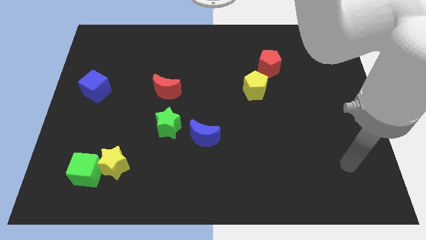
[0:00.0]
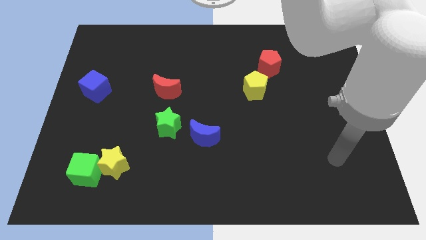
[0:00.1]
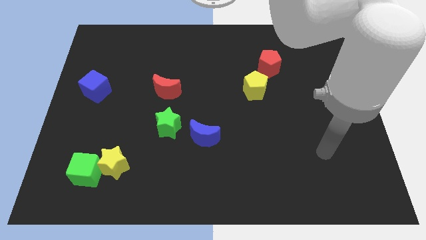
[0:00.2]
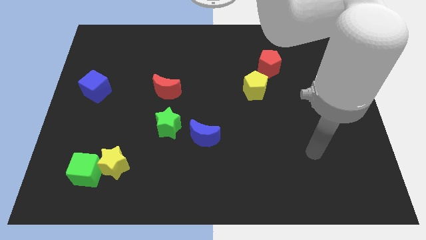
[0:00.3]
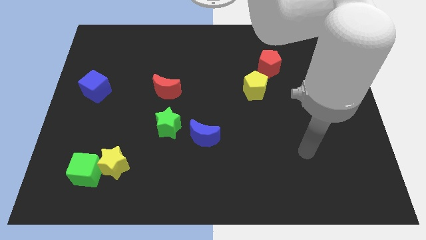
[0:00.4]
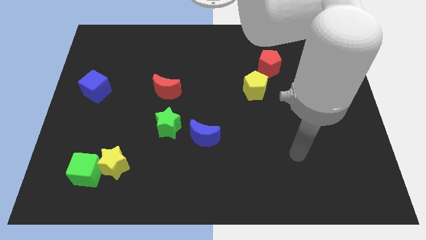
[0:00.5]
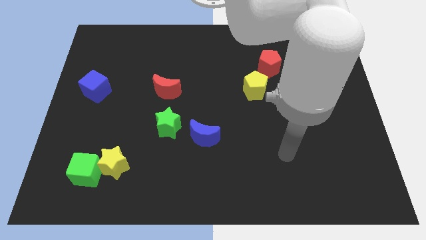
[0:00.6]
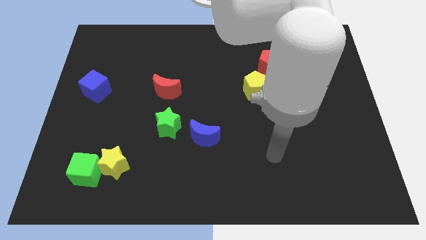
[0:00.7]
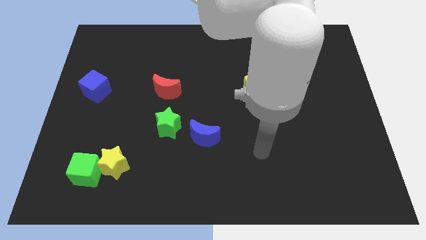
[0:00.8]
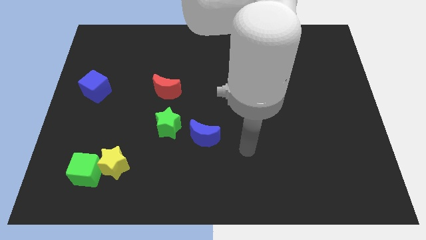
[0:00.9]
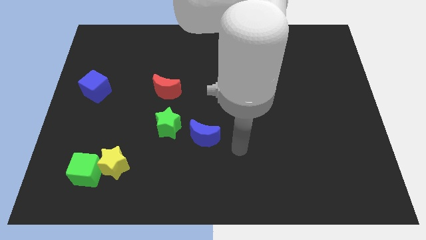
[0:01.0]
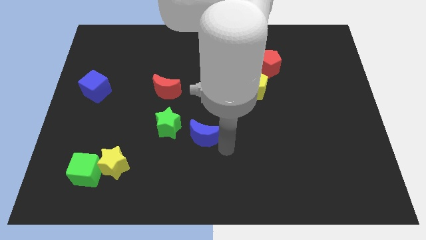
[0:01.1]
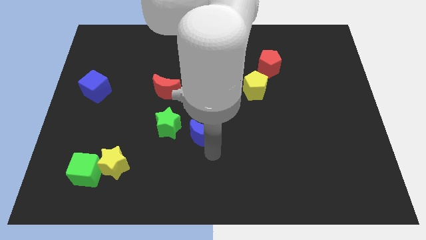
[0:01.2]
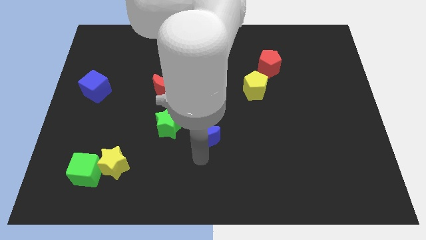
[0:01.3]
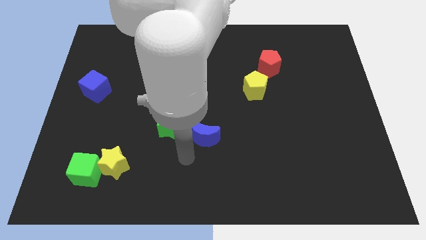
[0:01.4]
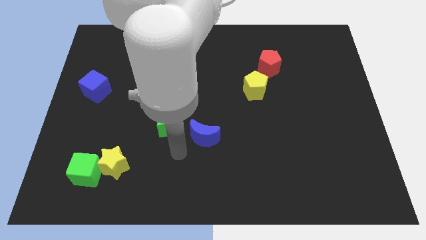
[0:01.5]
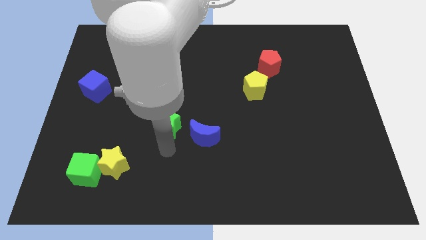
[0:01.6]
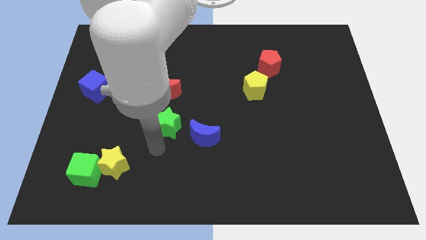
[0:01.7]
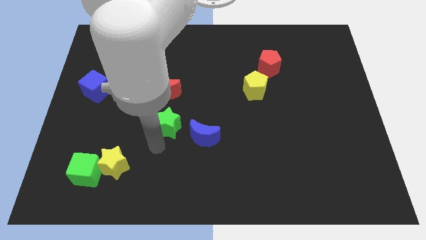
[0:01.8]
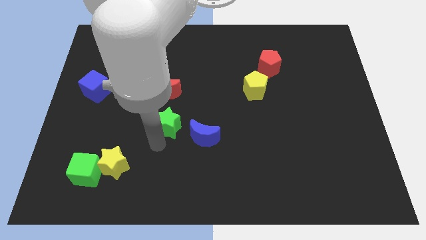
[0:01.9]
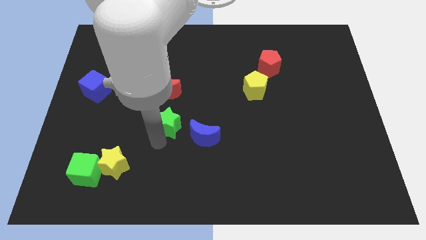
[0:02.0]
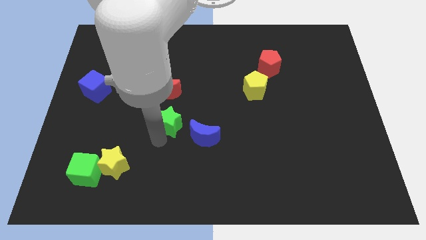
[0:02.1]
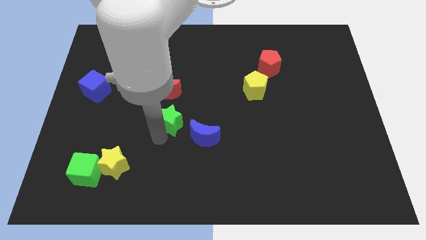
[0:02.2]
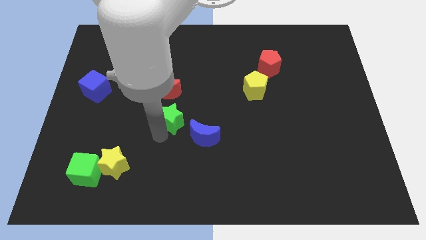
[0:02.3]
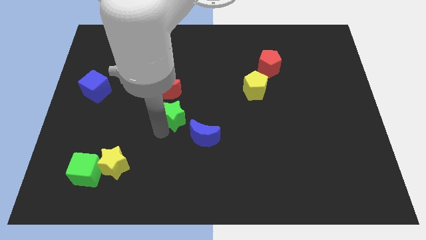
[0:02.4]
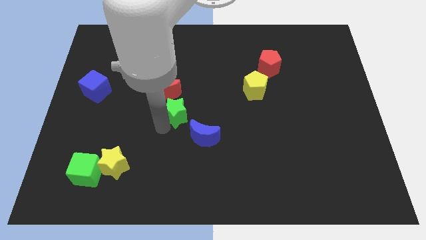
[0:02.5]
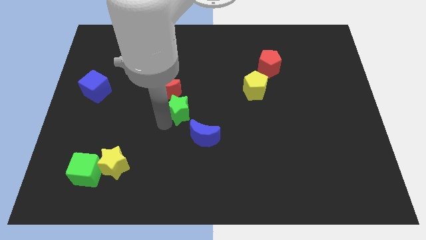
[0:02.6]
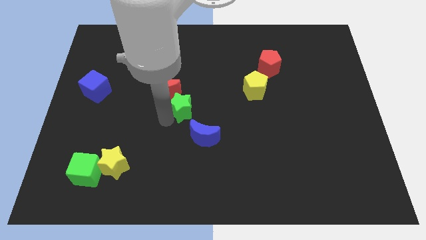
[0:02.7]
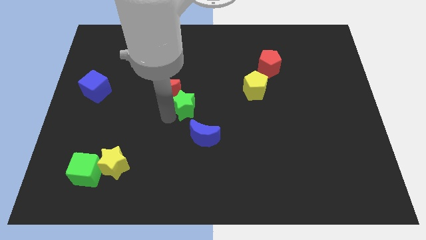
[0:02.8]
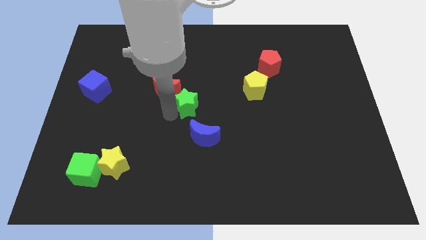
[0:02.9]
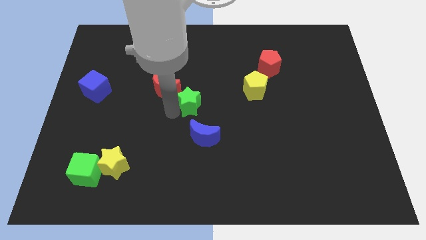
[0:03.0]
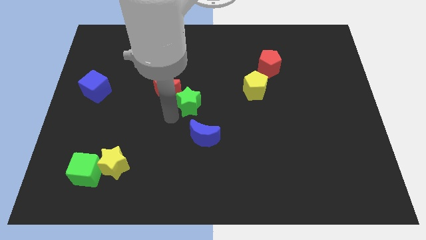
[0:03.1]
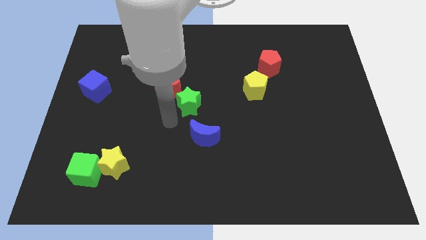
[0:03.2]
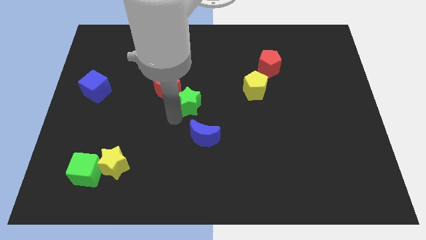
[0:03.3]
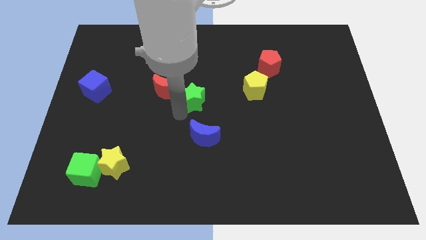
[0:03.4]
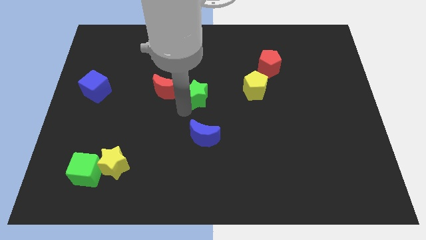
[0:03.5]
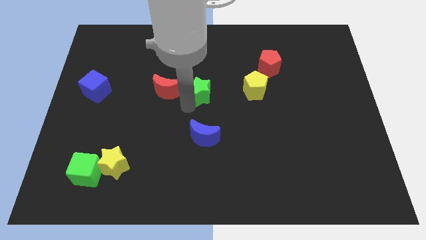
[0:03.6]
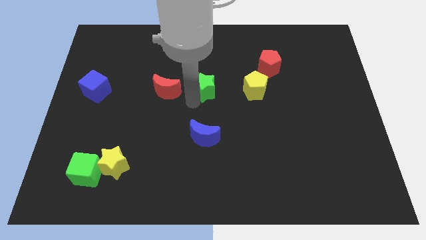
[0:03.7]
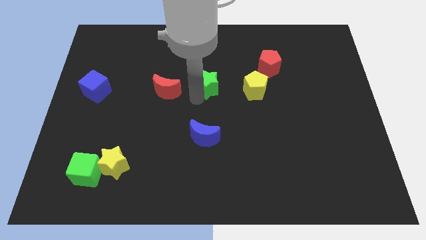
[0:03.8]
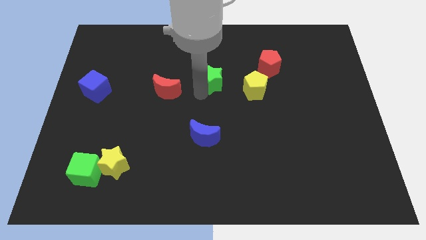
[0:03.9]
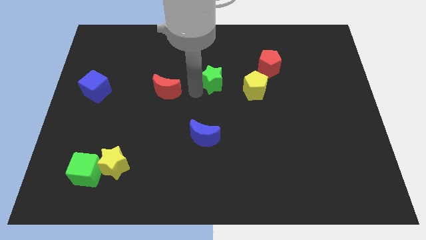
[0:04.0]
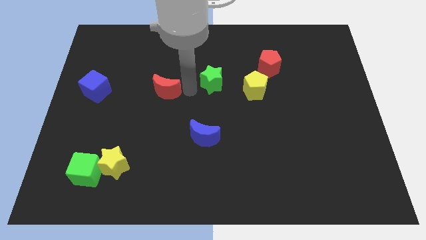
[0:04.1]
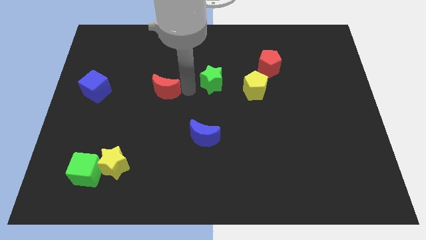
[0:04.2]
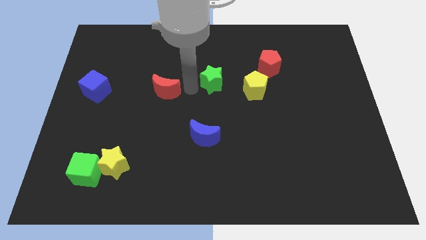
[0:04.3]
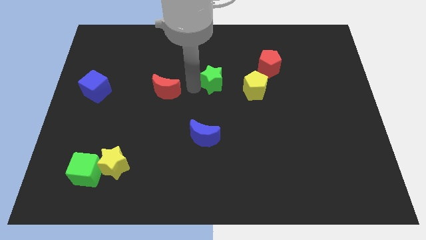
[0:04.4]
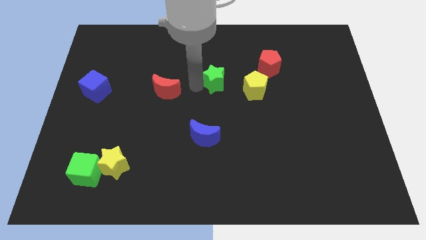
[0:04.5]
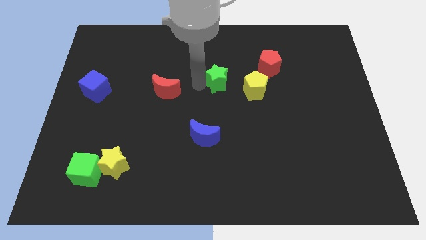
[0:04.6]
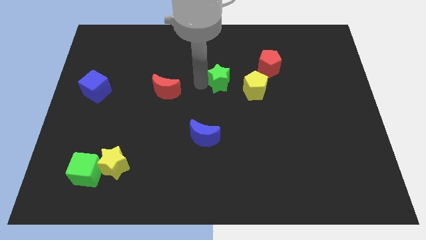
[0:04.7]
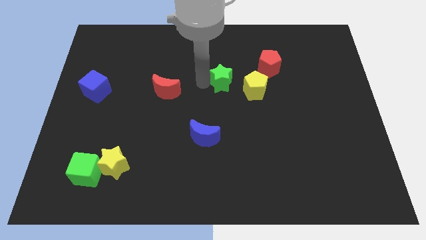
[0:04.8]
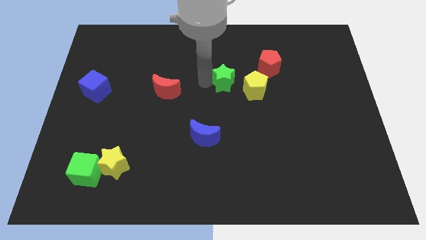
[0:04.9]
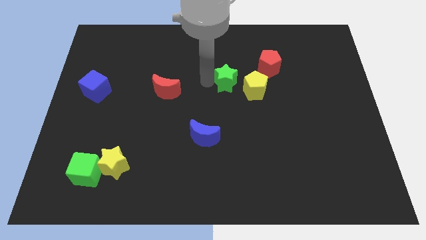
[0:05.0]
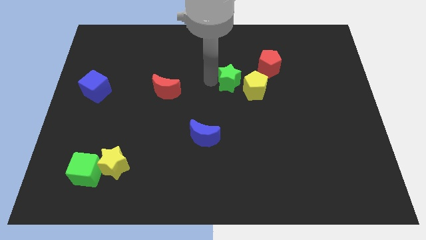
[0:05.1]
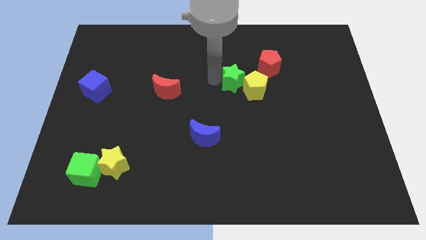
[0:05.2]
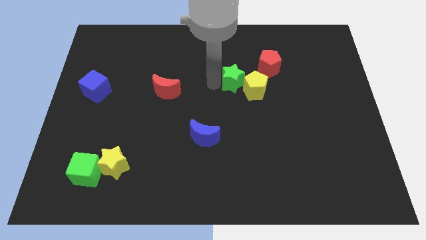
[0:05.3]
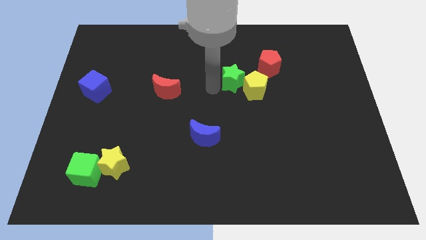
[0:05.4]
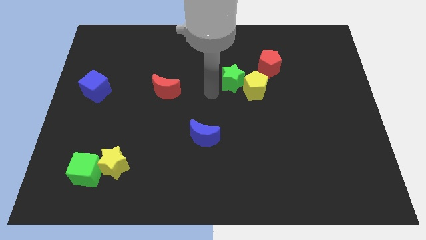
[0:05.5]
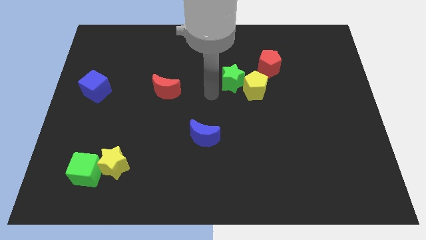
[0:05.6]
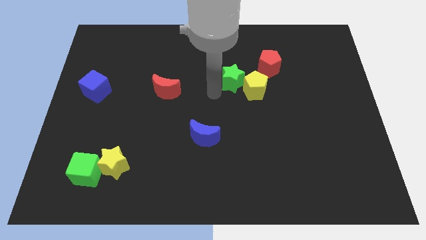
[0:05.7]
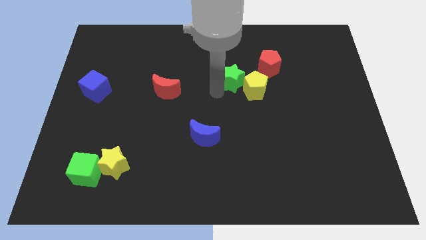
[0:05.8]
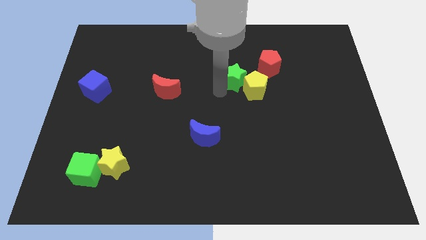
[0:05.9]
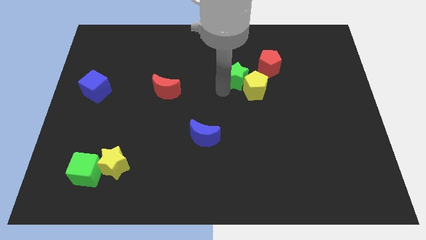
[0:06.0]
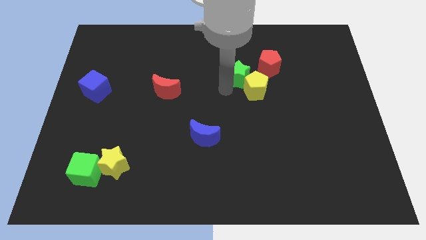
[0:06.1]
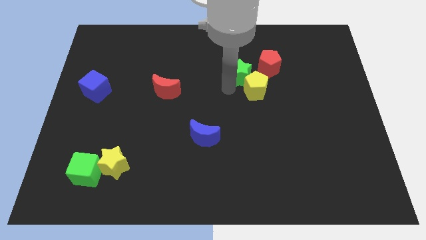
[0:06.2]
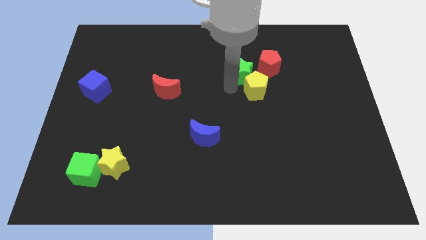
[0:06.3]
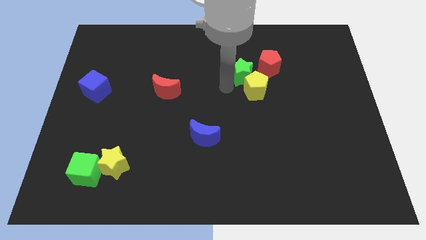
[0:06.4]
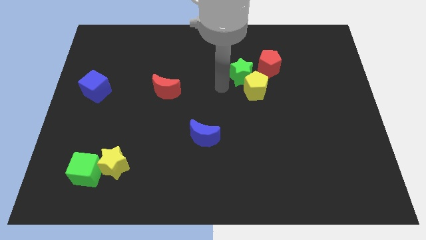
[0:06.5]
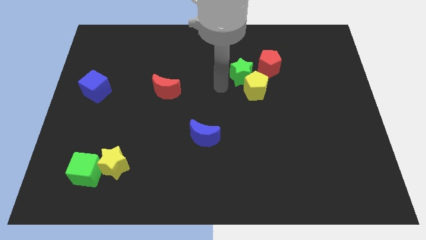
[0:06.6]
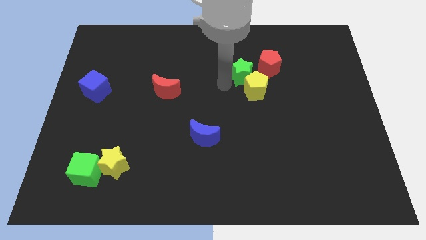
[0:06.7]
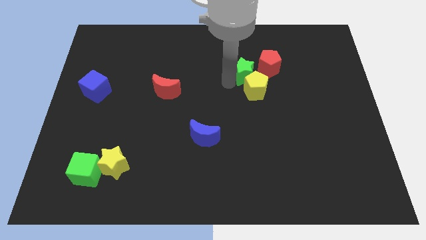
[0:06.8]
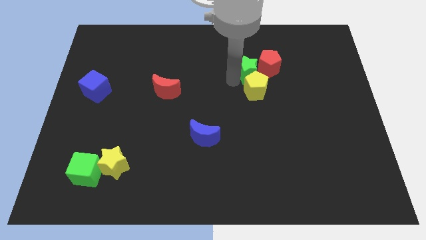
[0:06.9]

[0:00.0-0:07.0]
put the green star close to the red pentagon
